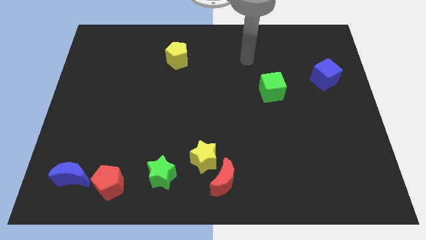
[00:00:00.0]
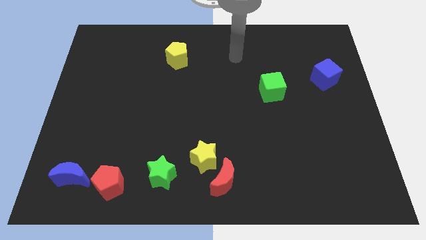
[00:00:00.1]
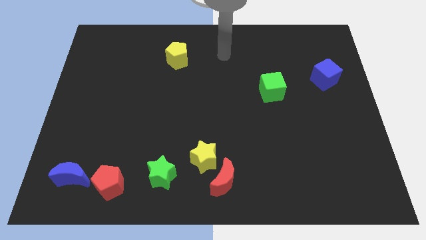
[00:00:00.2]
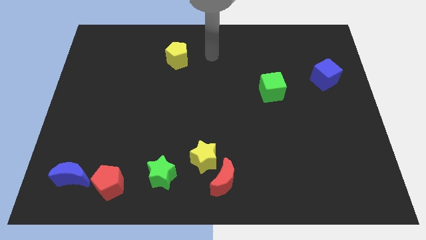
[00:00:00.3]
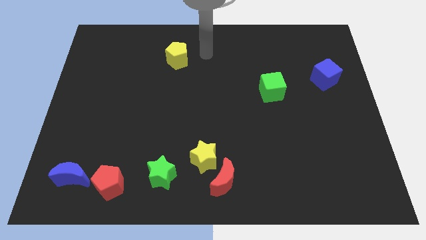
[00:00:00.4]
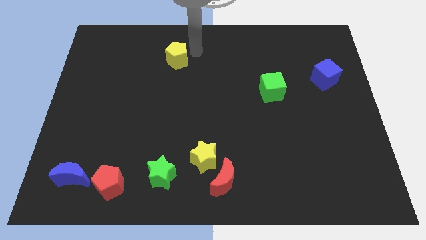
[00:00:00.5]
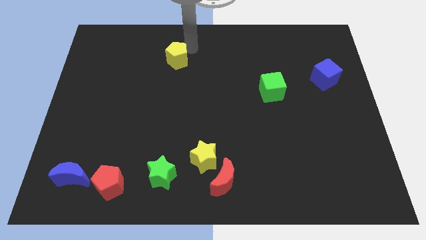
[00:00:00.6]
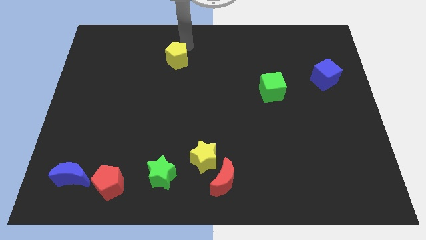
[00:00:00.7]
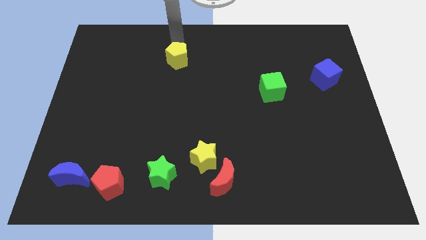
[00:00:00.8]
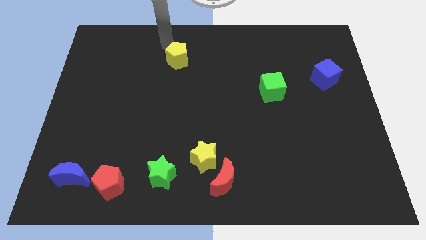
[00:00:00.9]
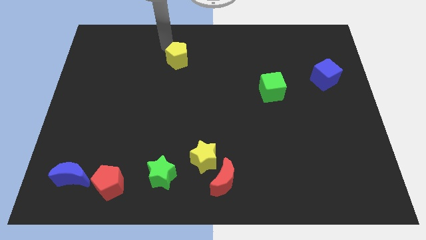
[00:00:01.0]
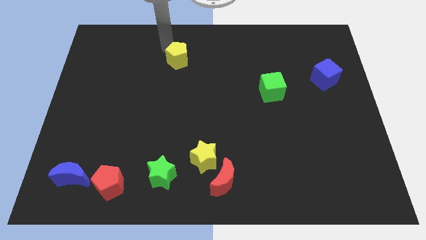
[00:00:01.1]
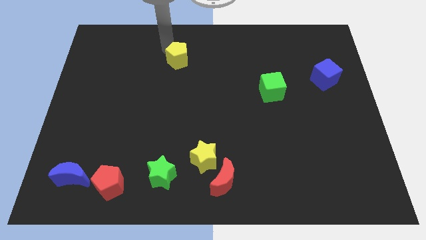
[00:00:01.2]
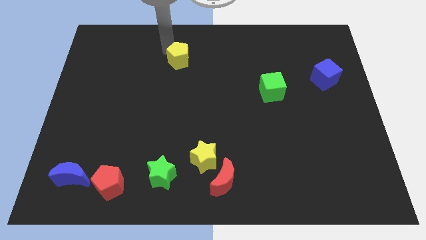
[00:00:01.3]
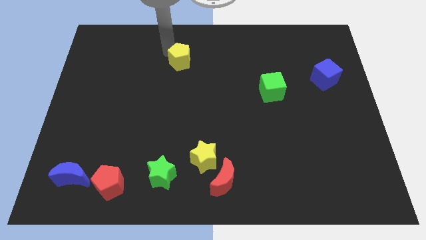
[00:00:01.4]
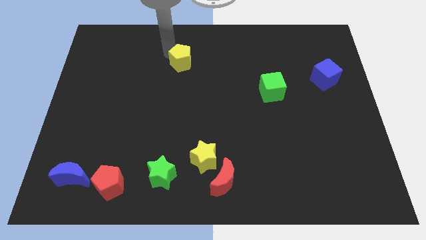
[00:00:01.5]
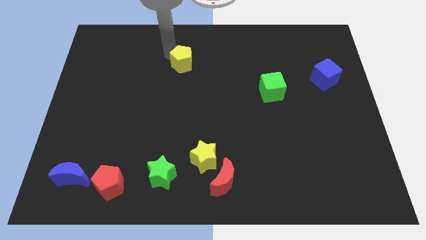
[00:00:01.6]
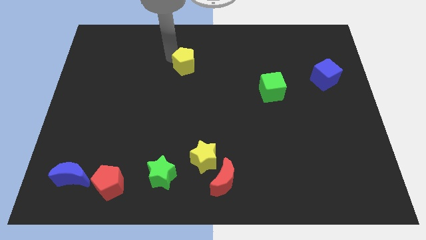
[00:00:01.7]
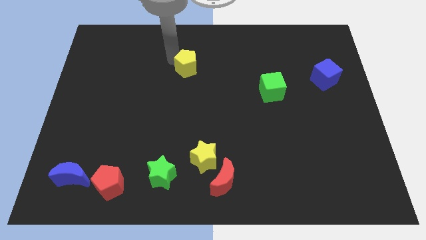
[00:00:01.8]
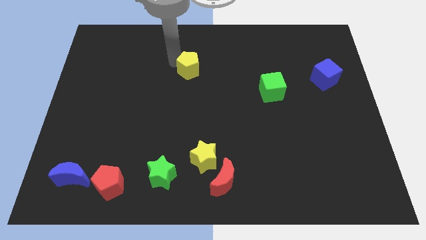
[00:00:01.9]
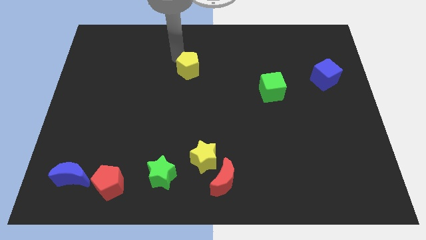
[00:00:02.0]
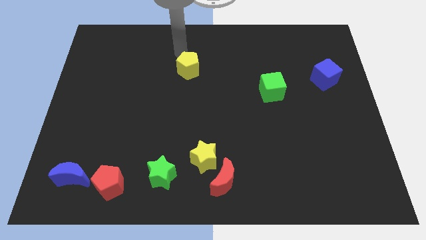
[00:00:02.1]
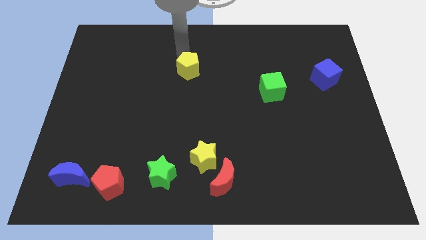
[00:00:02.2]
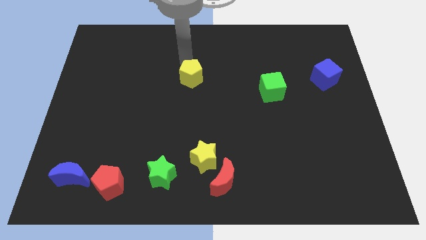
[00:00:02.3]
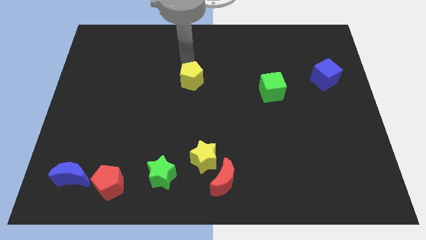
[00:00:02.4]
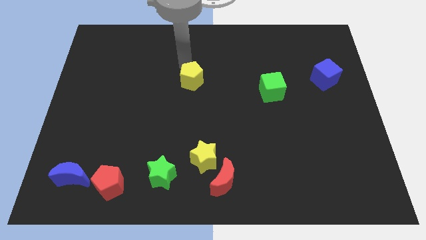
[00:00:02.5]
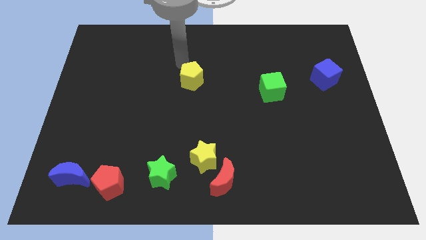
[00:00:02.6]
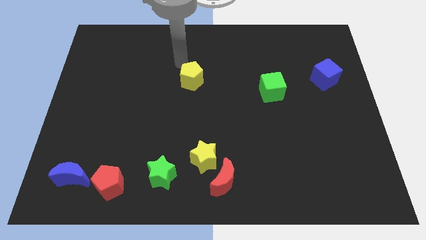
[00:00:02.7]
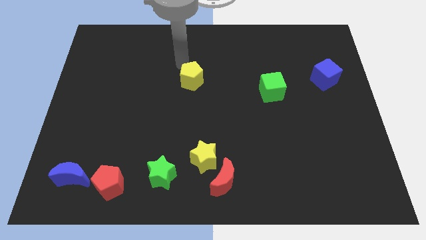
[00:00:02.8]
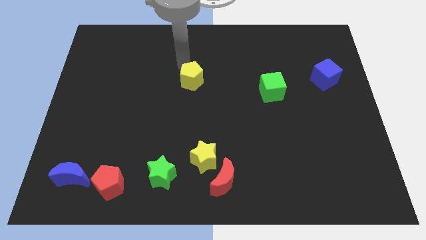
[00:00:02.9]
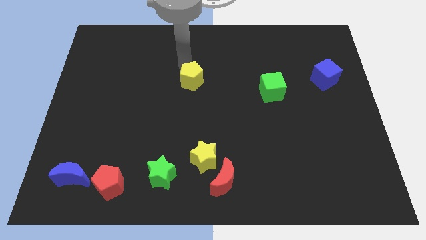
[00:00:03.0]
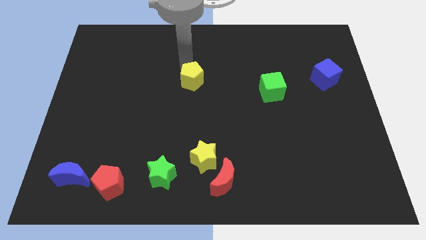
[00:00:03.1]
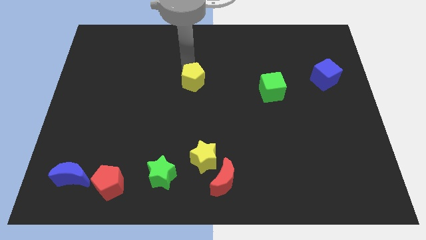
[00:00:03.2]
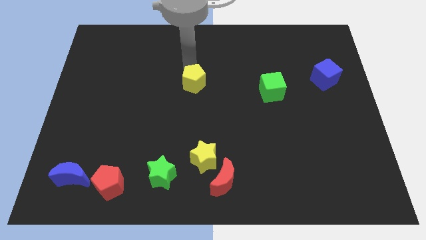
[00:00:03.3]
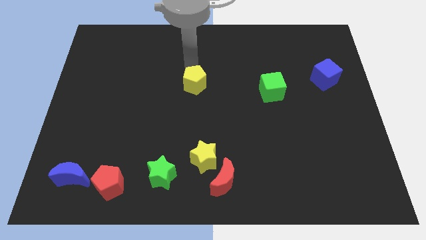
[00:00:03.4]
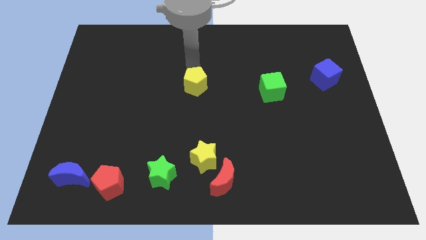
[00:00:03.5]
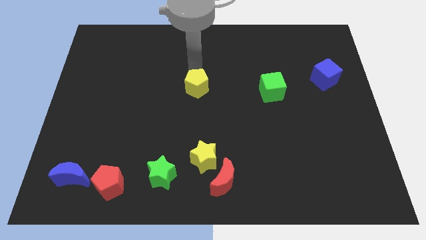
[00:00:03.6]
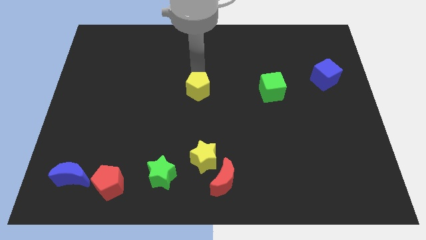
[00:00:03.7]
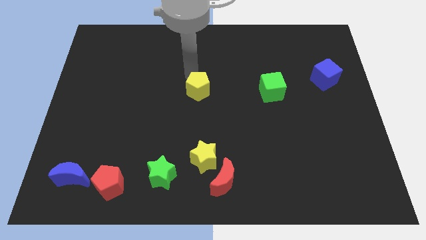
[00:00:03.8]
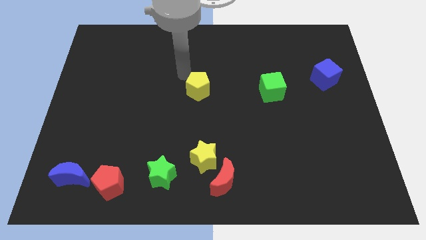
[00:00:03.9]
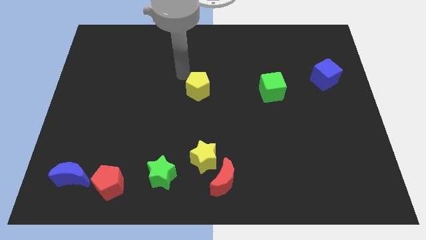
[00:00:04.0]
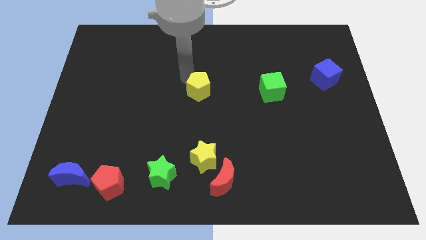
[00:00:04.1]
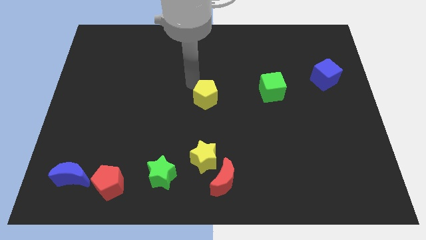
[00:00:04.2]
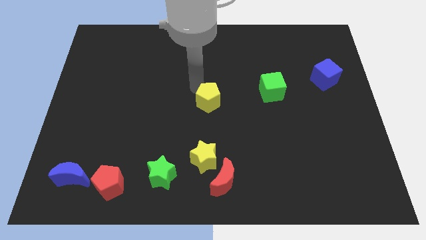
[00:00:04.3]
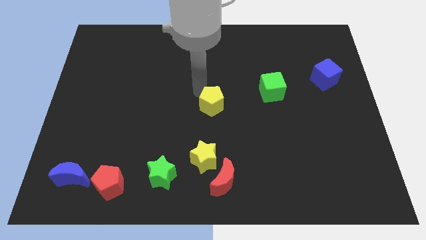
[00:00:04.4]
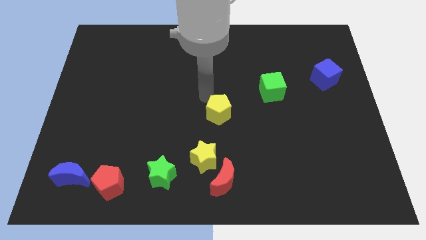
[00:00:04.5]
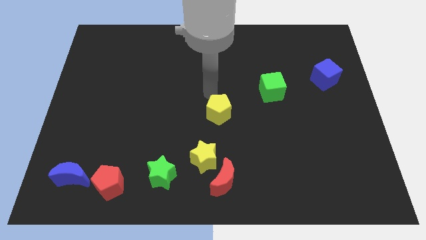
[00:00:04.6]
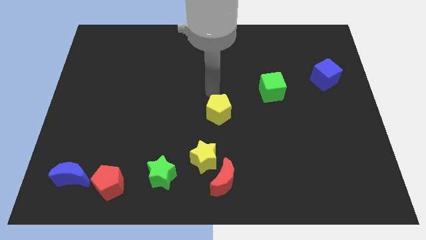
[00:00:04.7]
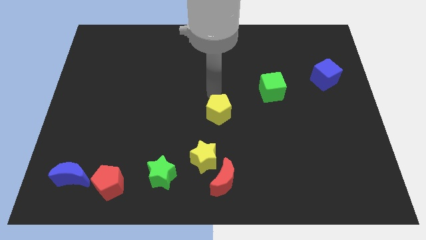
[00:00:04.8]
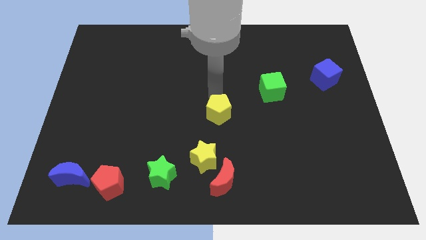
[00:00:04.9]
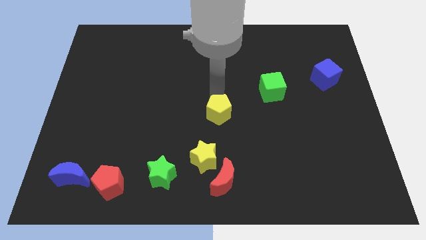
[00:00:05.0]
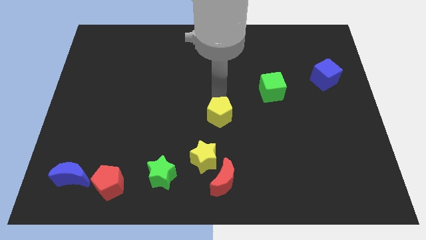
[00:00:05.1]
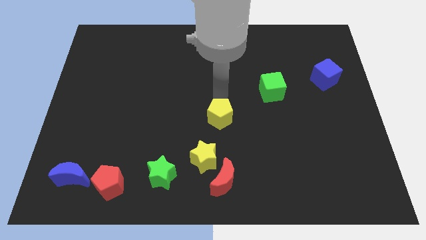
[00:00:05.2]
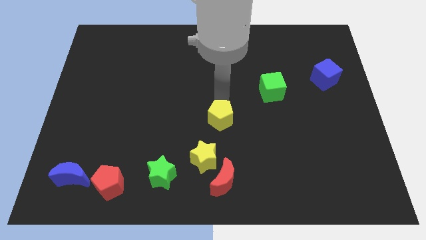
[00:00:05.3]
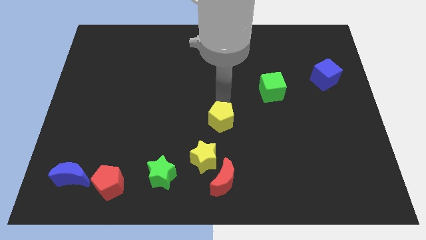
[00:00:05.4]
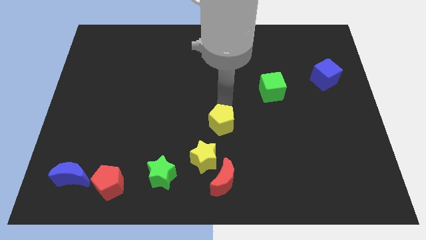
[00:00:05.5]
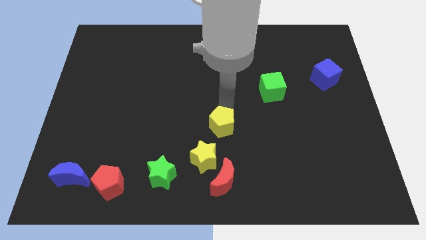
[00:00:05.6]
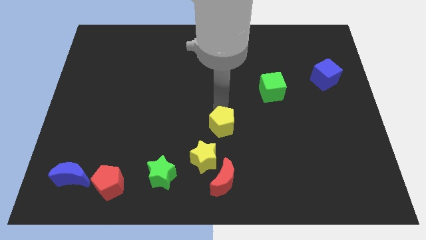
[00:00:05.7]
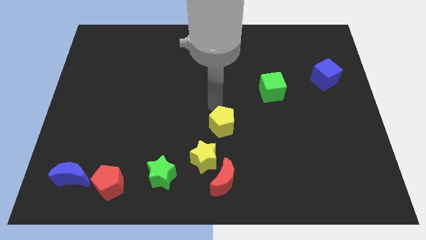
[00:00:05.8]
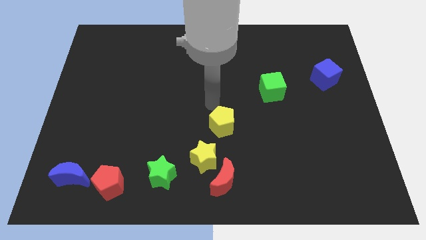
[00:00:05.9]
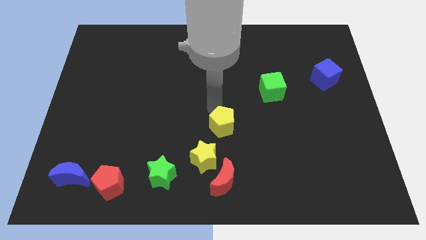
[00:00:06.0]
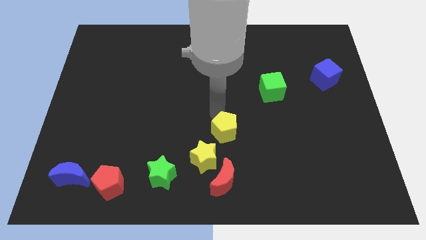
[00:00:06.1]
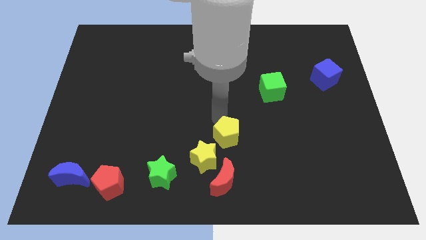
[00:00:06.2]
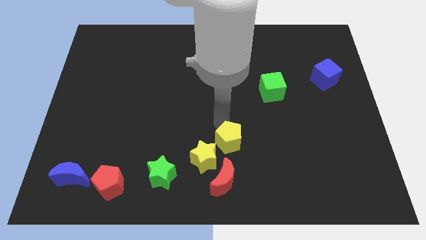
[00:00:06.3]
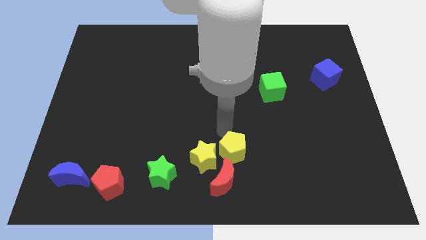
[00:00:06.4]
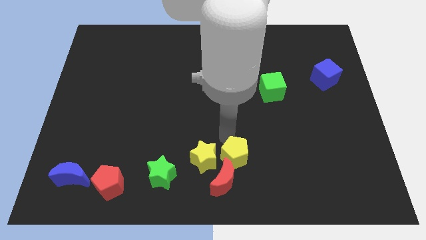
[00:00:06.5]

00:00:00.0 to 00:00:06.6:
put the yellow pentagon to the bottom side
